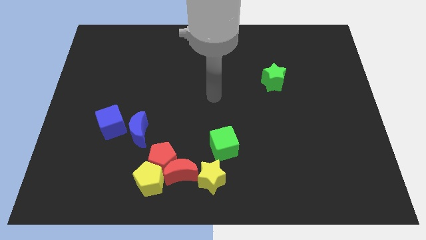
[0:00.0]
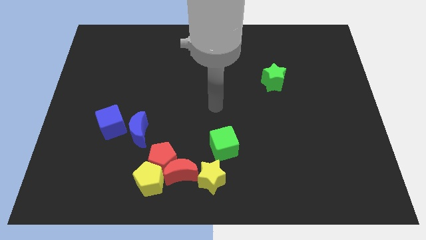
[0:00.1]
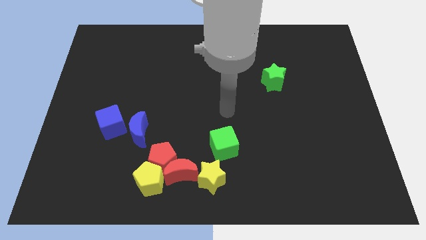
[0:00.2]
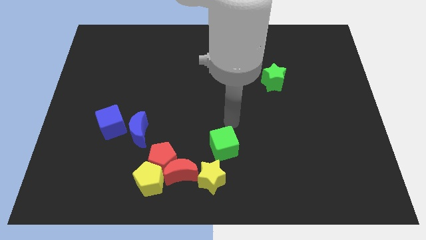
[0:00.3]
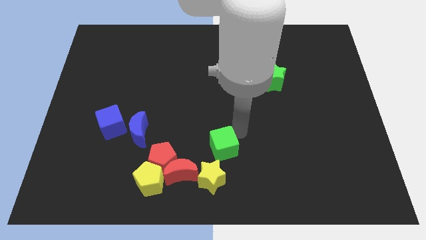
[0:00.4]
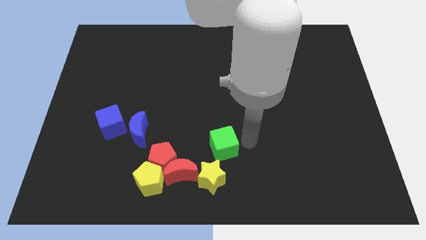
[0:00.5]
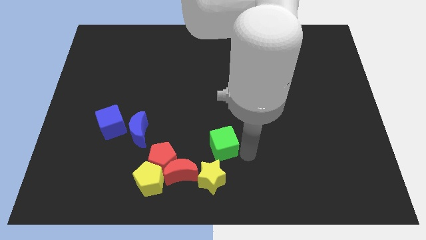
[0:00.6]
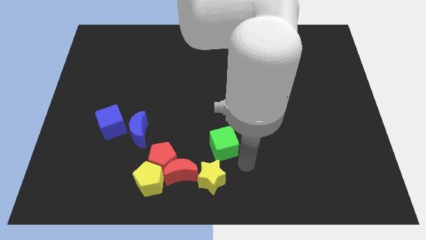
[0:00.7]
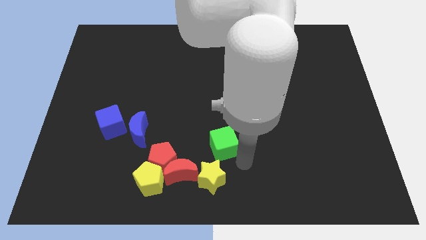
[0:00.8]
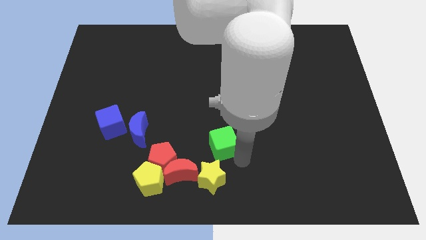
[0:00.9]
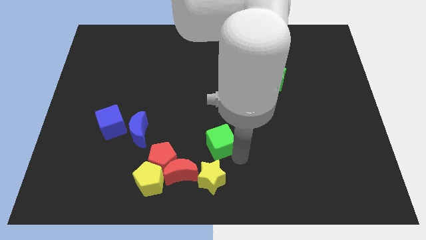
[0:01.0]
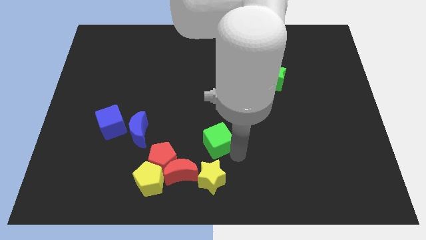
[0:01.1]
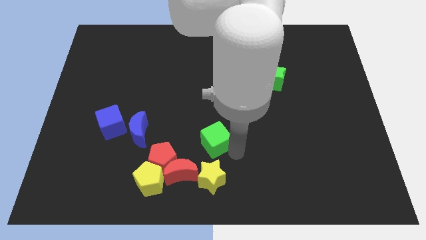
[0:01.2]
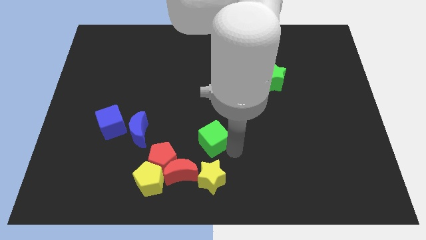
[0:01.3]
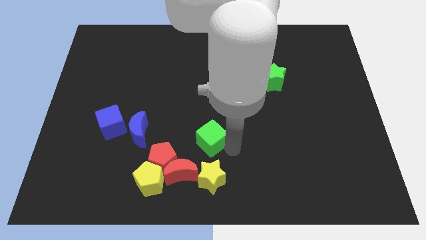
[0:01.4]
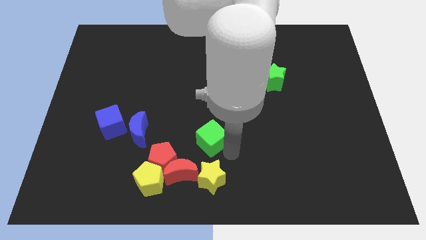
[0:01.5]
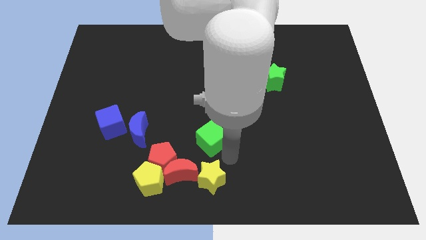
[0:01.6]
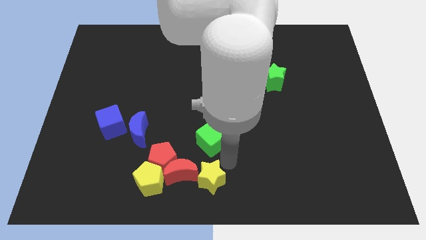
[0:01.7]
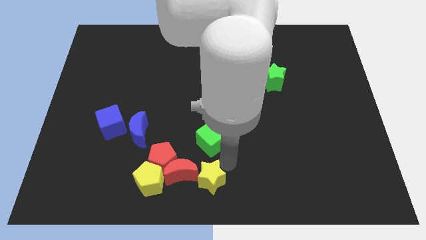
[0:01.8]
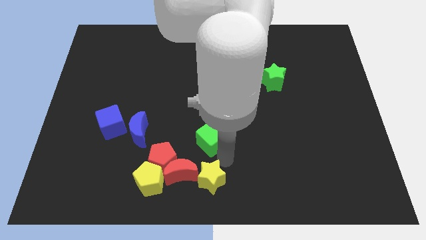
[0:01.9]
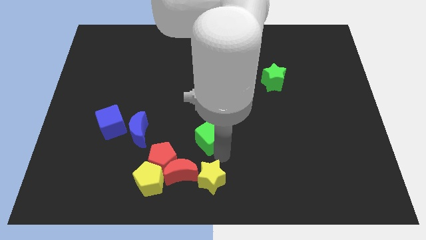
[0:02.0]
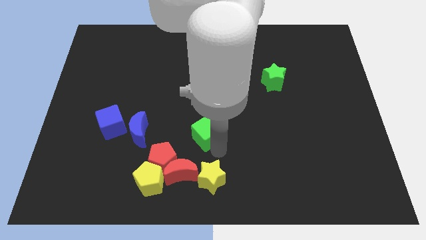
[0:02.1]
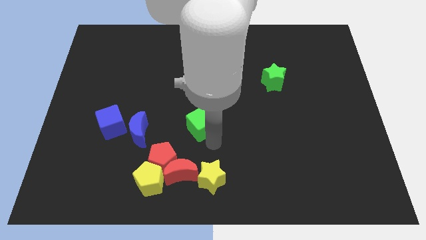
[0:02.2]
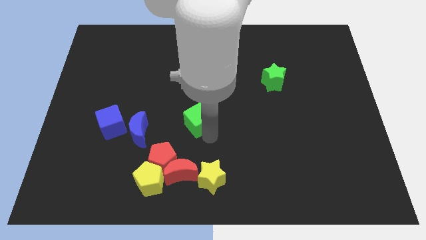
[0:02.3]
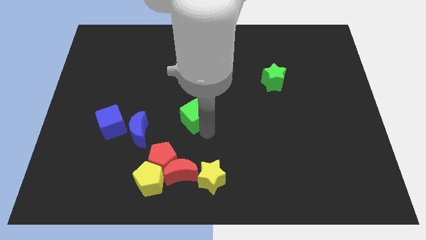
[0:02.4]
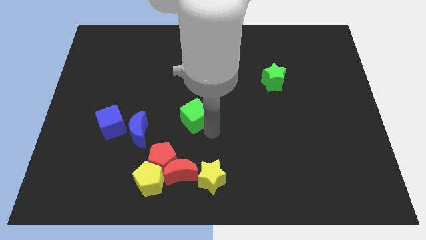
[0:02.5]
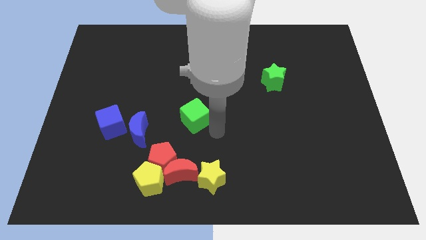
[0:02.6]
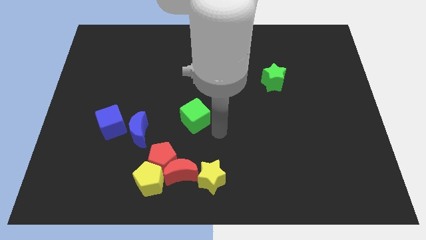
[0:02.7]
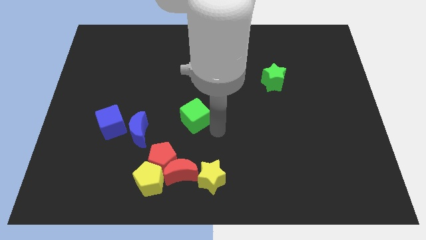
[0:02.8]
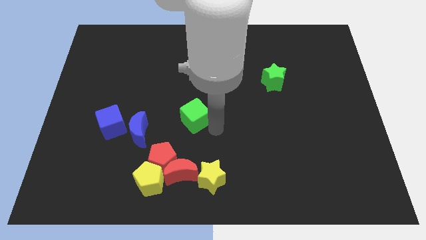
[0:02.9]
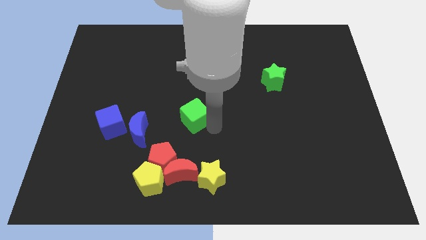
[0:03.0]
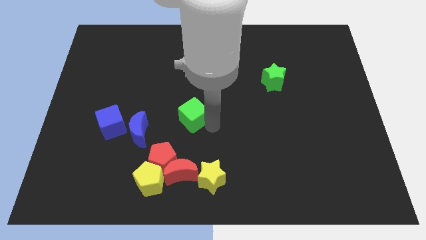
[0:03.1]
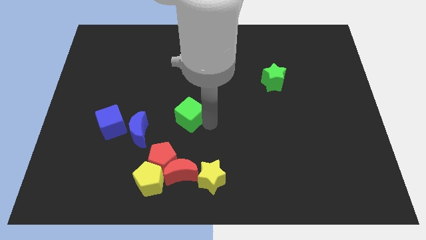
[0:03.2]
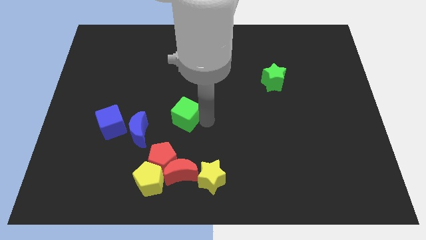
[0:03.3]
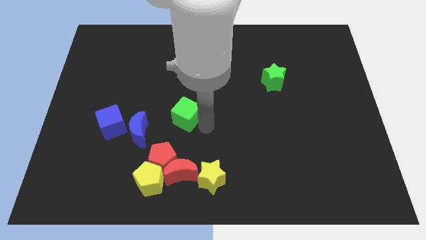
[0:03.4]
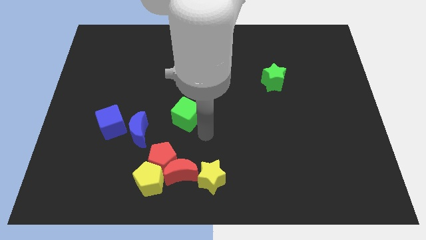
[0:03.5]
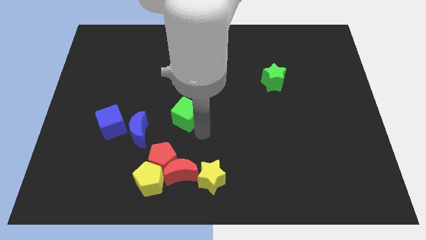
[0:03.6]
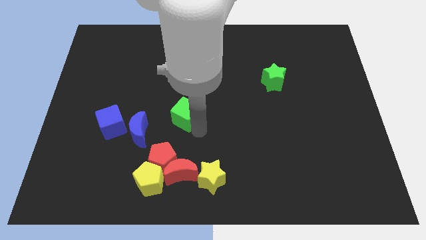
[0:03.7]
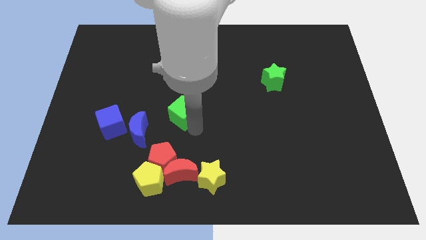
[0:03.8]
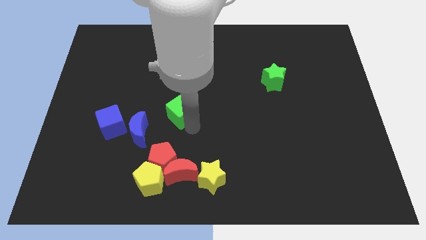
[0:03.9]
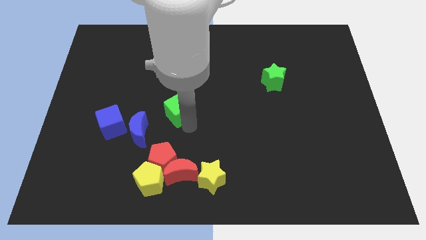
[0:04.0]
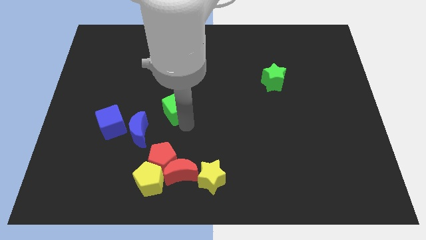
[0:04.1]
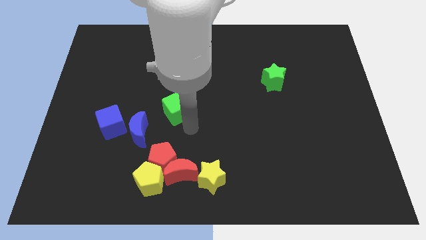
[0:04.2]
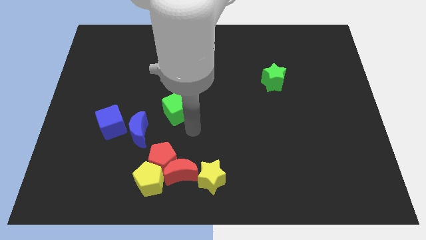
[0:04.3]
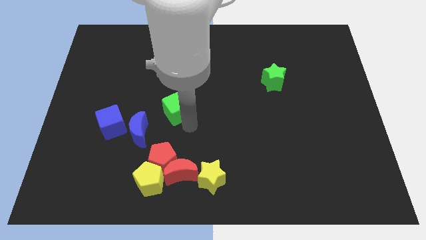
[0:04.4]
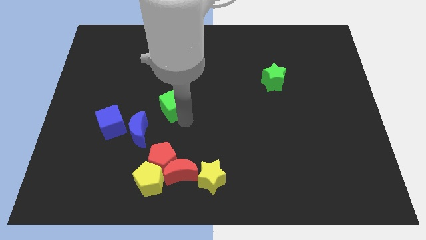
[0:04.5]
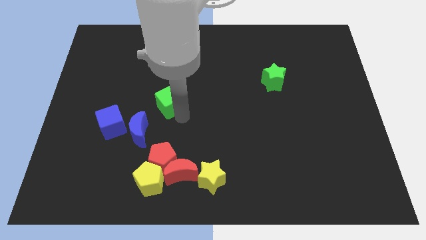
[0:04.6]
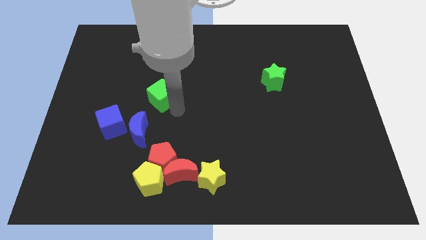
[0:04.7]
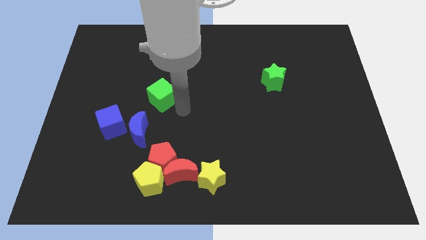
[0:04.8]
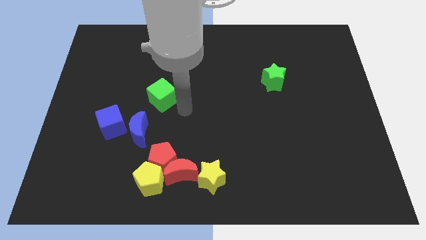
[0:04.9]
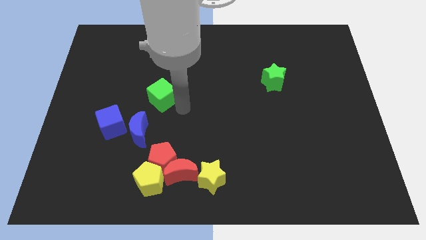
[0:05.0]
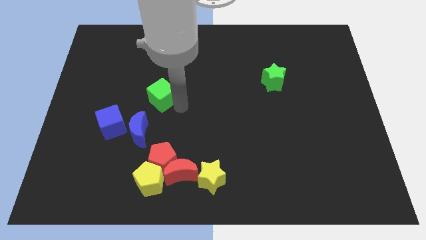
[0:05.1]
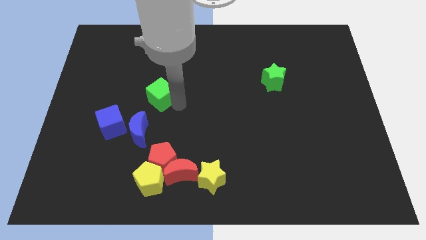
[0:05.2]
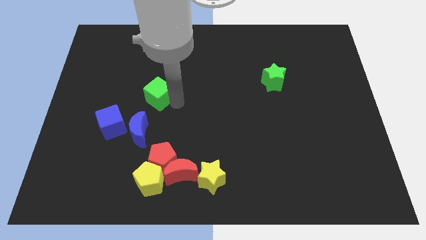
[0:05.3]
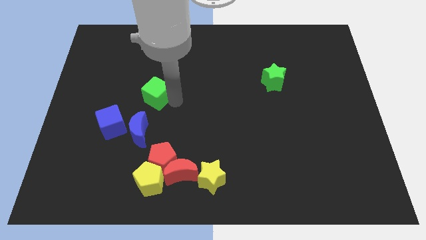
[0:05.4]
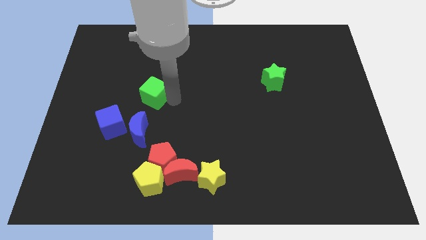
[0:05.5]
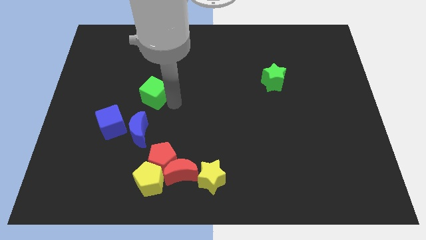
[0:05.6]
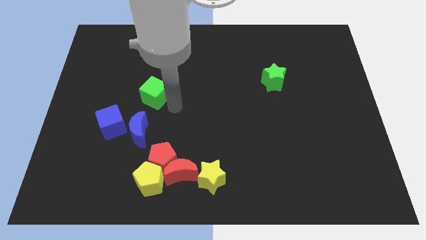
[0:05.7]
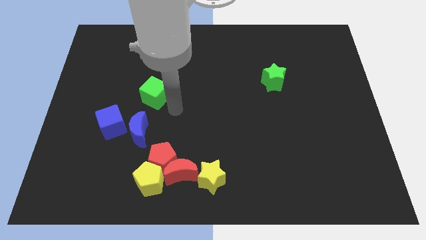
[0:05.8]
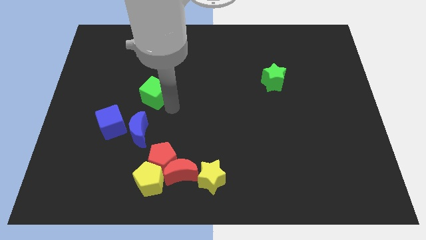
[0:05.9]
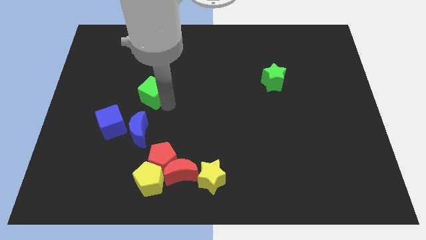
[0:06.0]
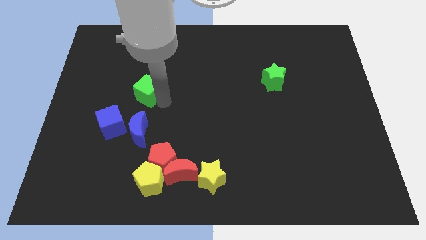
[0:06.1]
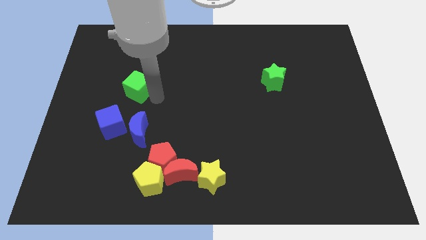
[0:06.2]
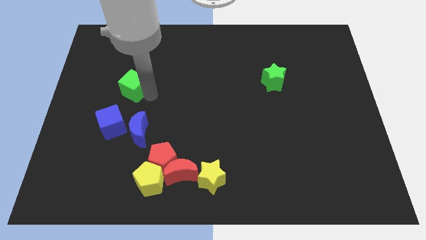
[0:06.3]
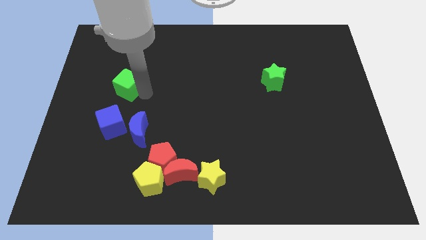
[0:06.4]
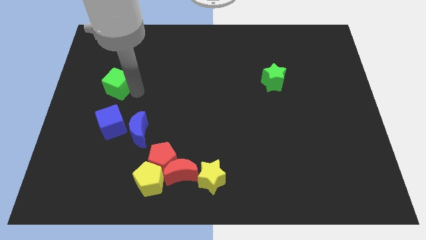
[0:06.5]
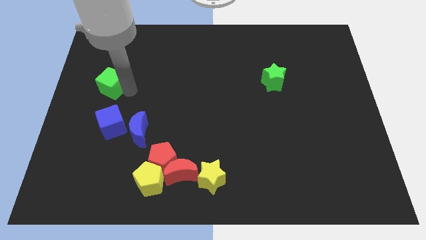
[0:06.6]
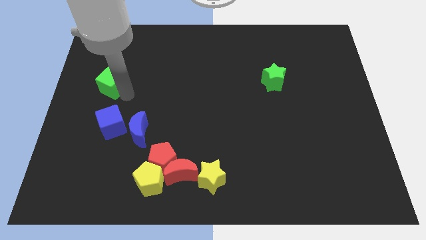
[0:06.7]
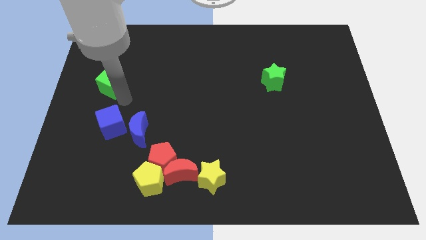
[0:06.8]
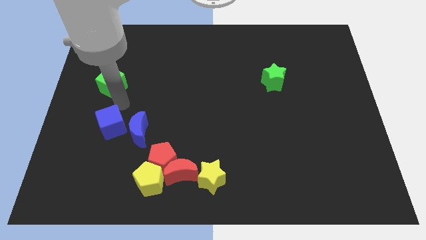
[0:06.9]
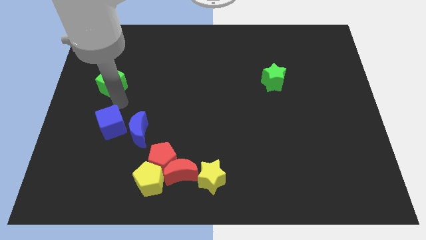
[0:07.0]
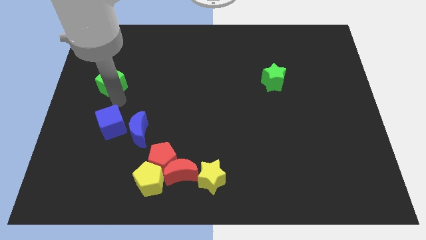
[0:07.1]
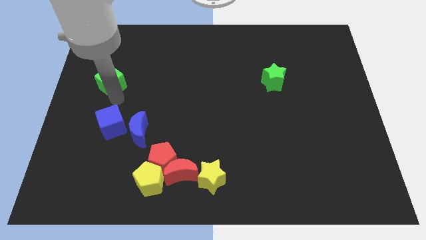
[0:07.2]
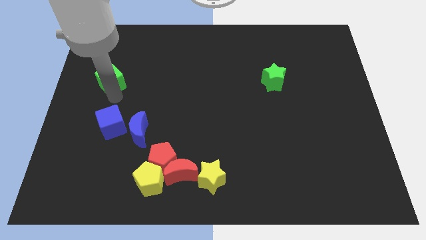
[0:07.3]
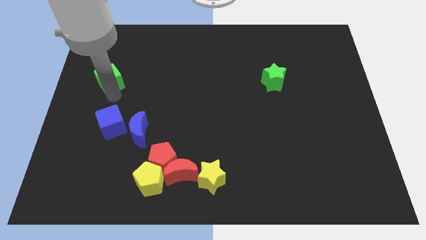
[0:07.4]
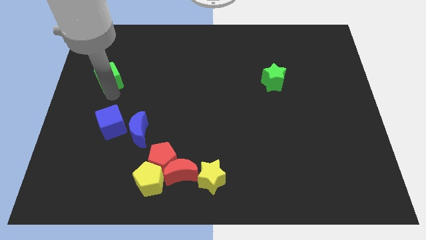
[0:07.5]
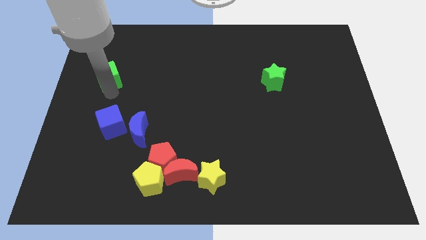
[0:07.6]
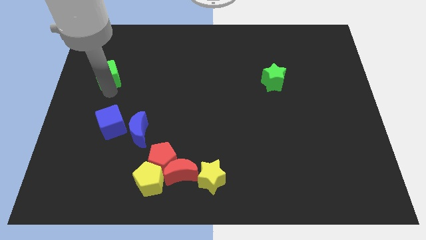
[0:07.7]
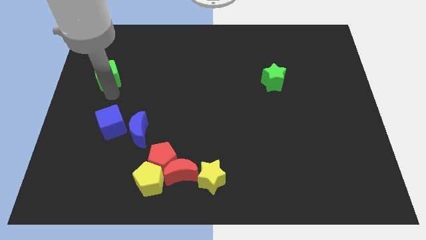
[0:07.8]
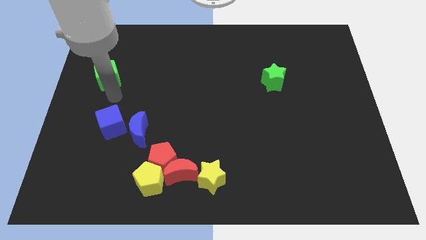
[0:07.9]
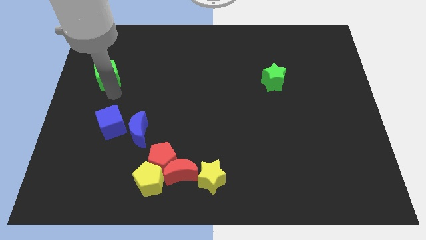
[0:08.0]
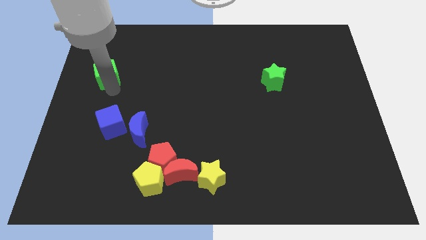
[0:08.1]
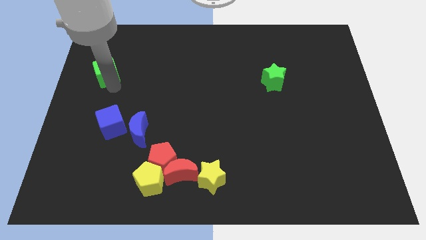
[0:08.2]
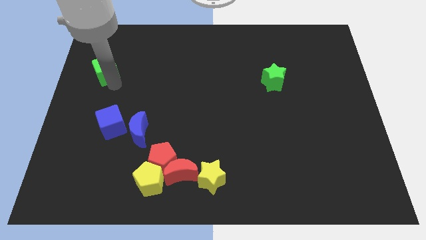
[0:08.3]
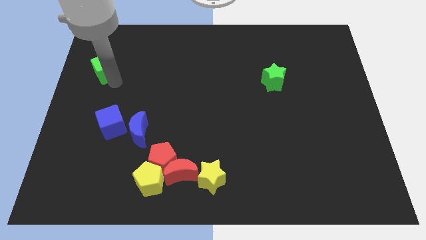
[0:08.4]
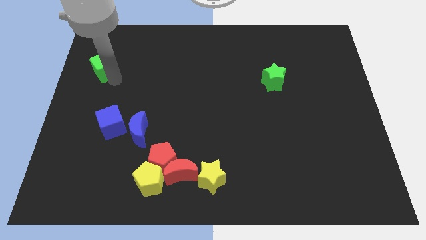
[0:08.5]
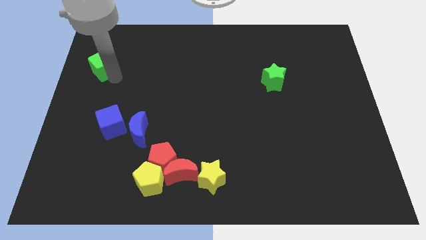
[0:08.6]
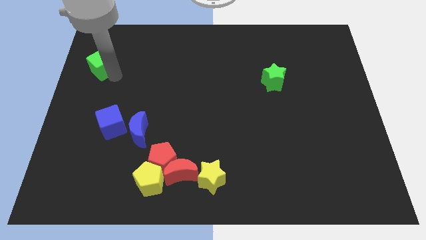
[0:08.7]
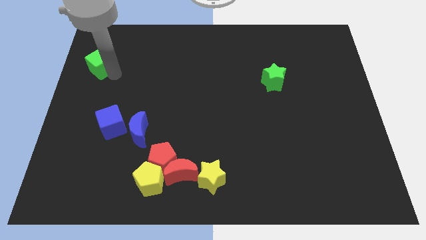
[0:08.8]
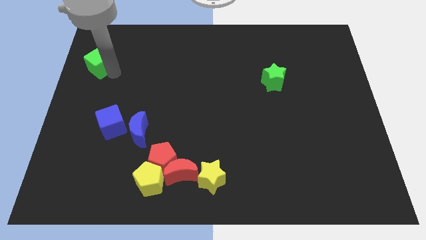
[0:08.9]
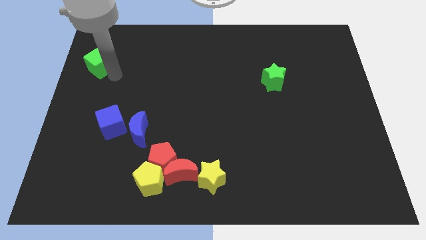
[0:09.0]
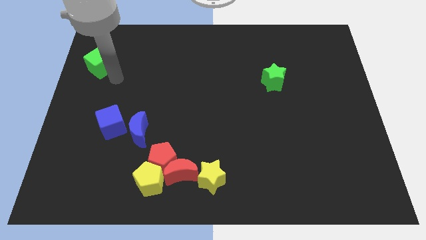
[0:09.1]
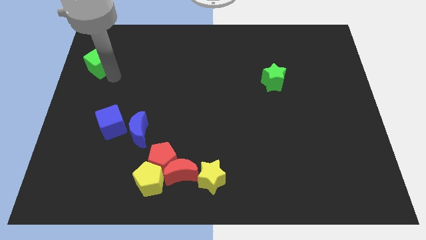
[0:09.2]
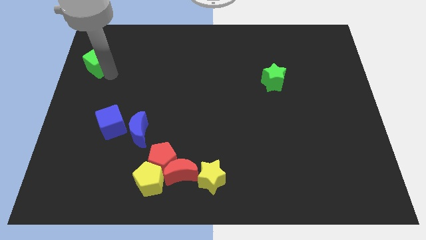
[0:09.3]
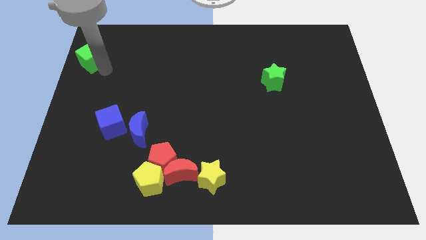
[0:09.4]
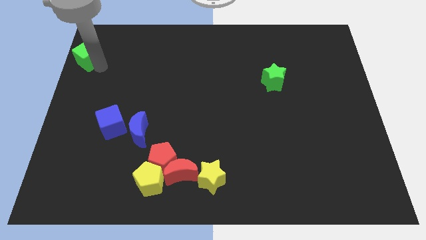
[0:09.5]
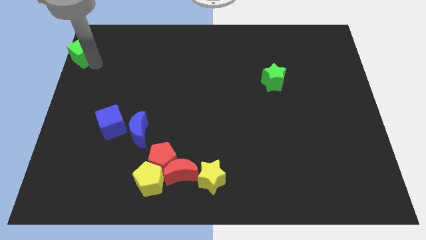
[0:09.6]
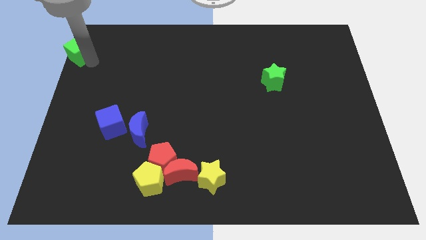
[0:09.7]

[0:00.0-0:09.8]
slide the green cube to the top left of the board
